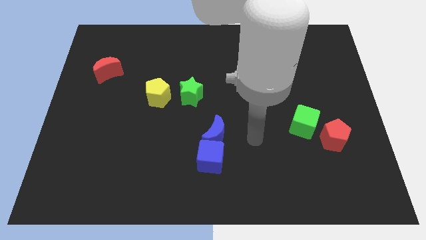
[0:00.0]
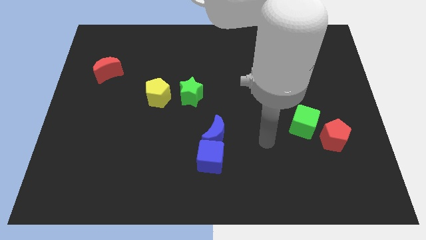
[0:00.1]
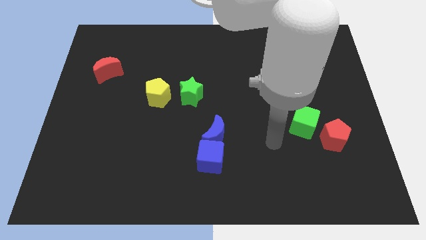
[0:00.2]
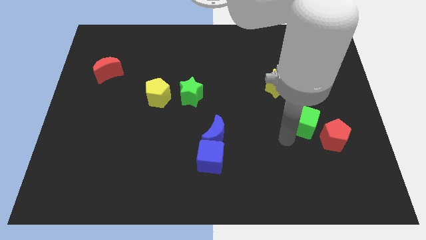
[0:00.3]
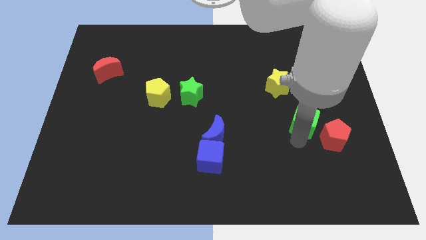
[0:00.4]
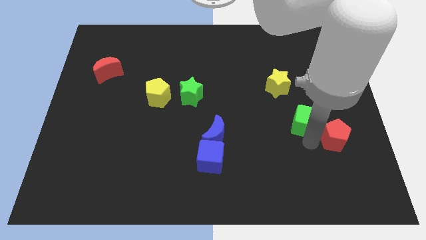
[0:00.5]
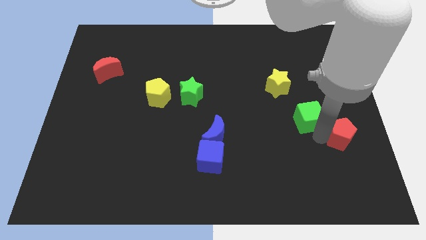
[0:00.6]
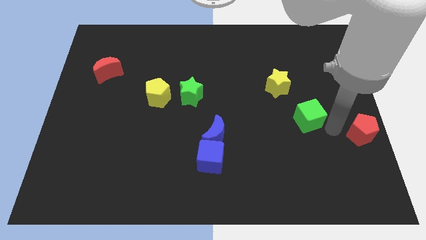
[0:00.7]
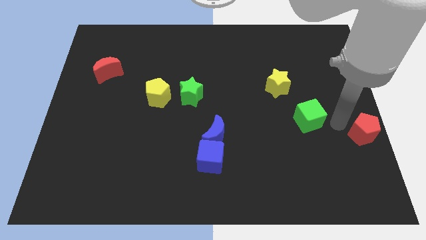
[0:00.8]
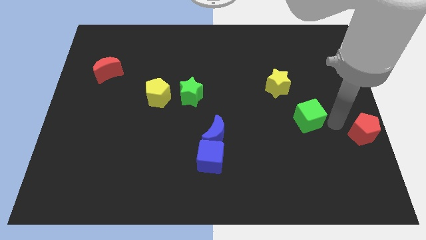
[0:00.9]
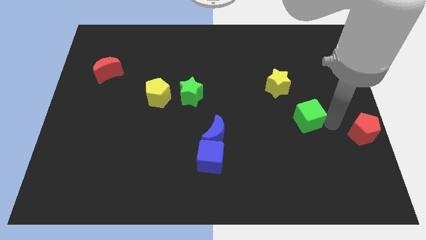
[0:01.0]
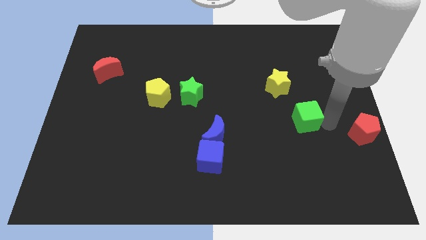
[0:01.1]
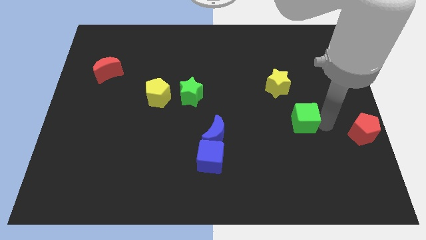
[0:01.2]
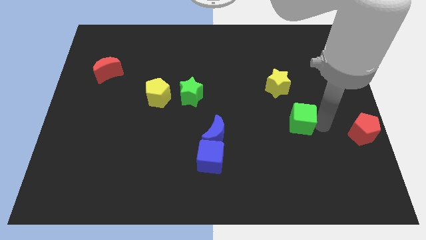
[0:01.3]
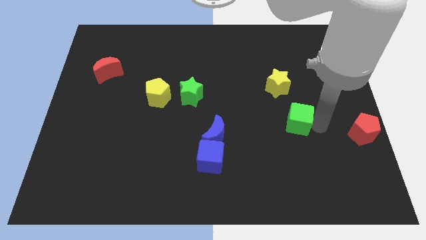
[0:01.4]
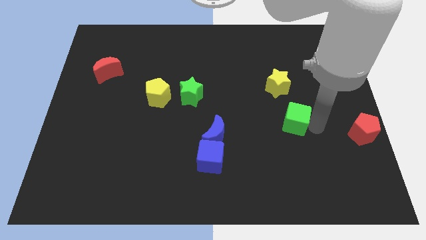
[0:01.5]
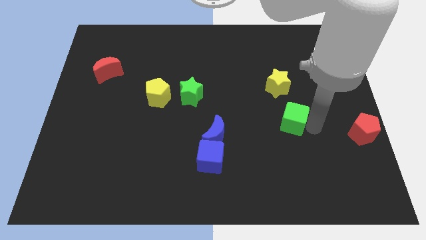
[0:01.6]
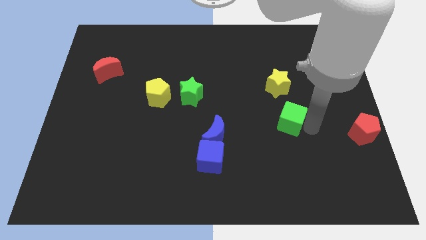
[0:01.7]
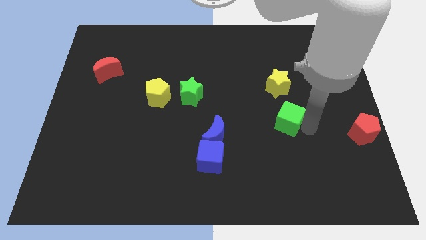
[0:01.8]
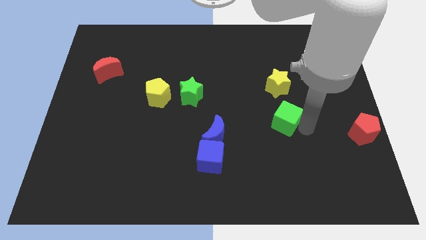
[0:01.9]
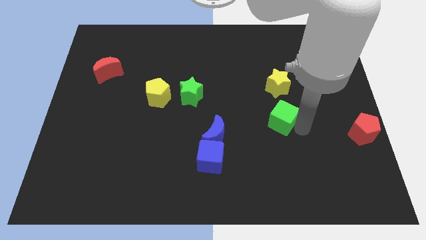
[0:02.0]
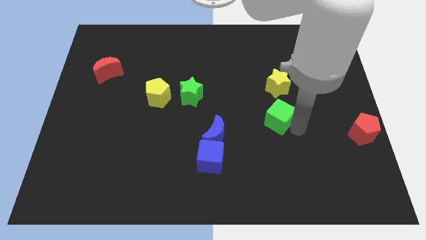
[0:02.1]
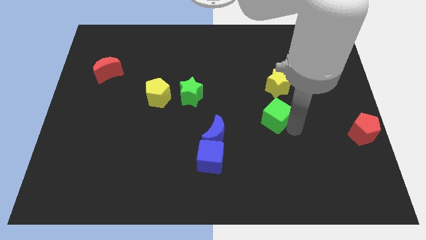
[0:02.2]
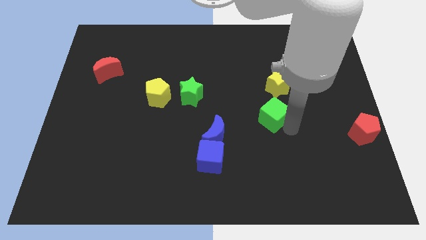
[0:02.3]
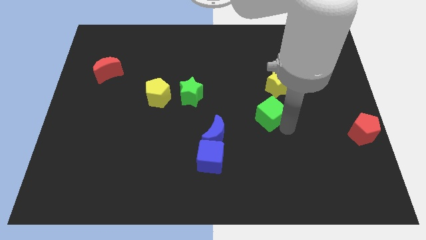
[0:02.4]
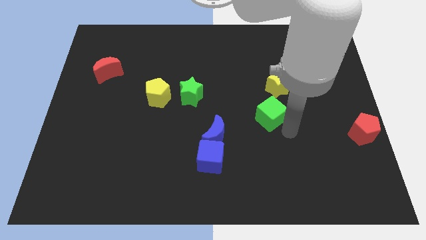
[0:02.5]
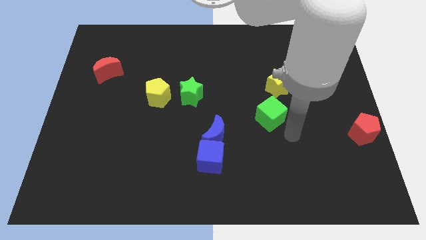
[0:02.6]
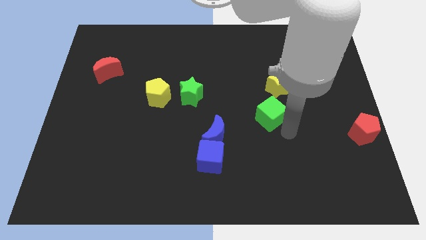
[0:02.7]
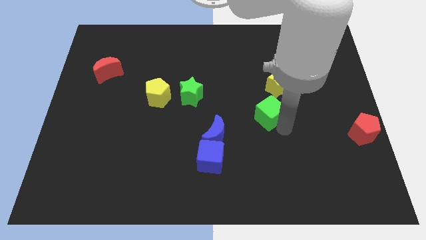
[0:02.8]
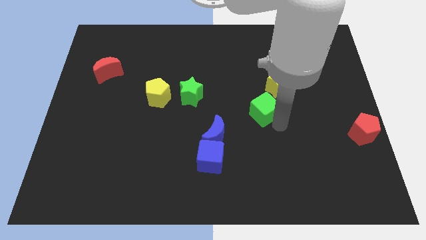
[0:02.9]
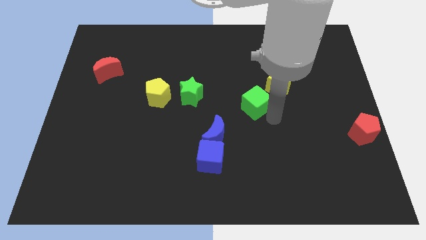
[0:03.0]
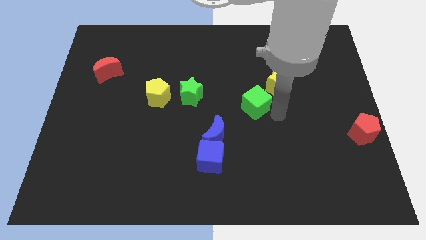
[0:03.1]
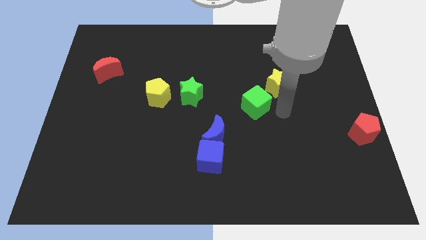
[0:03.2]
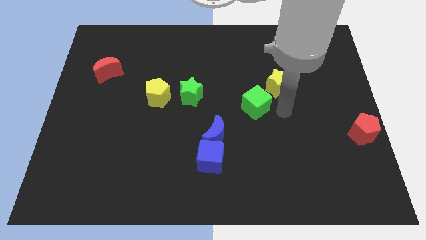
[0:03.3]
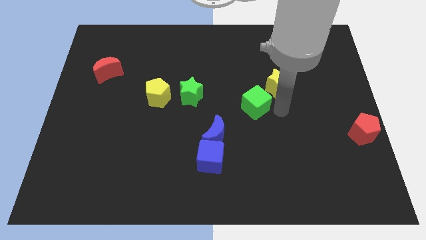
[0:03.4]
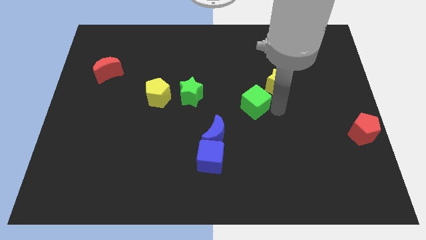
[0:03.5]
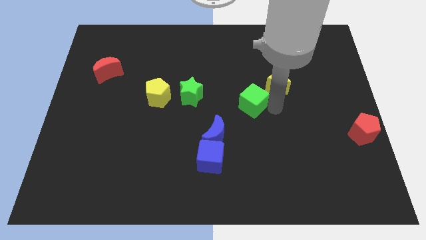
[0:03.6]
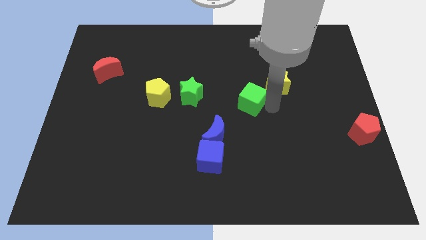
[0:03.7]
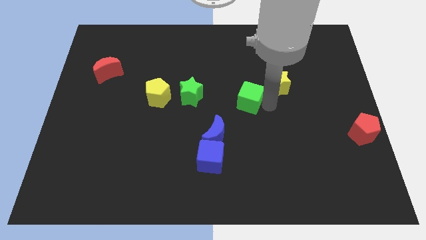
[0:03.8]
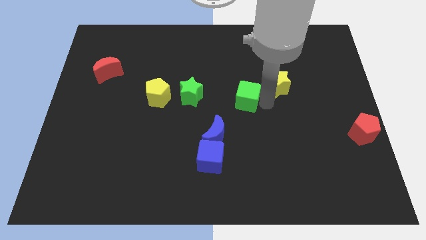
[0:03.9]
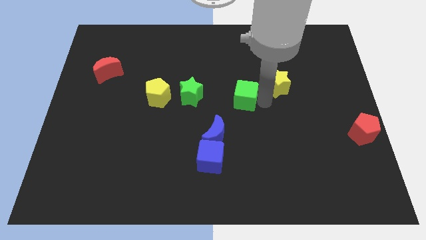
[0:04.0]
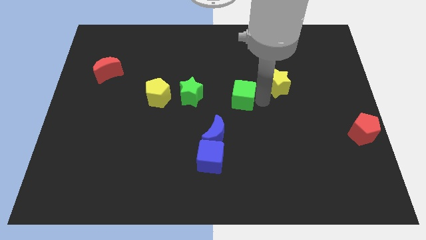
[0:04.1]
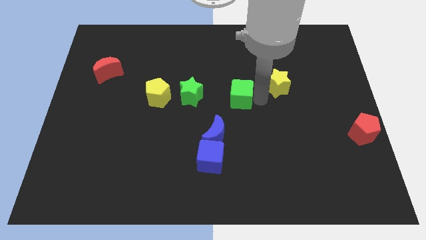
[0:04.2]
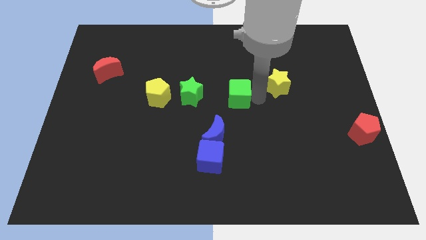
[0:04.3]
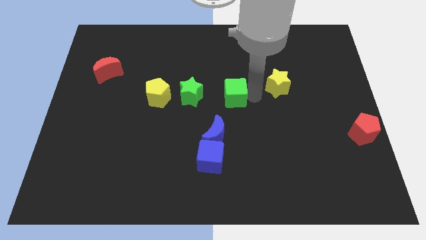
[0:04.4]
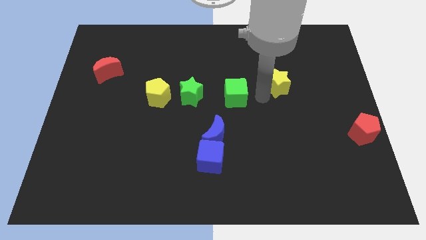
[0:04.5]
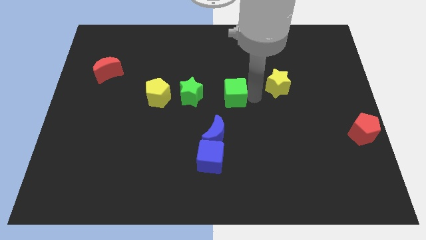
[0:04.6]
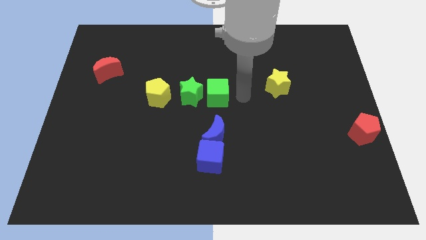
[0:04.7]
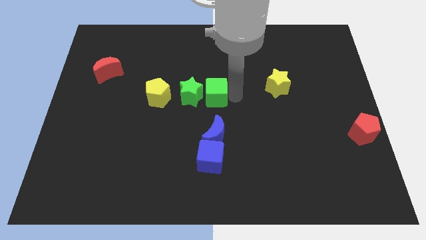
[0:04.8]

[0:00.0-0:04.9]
move the green cube to the green star

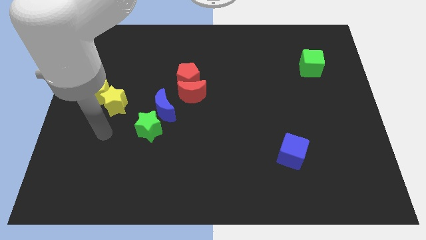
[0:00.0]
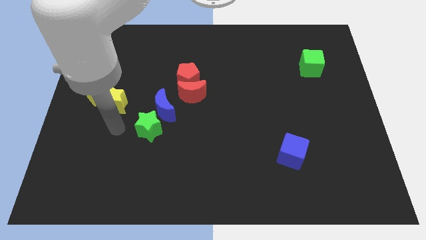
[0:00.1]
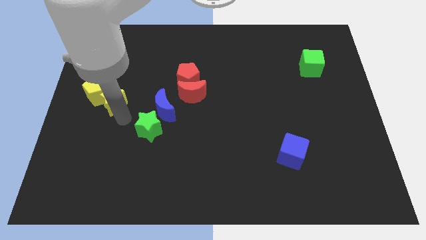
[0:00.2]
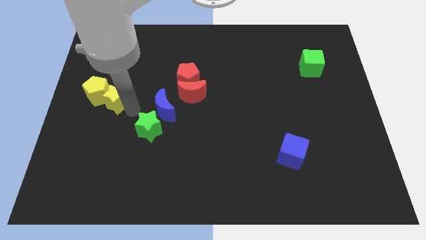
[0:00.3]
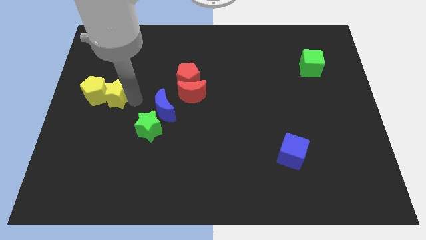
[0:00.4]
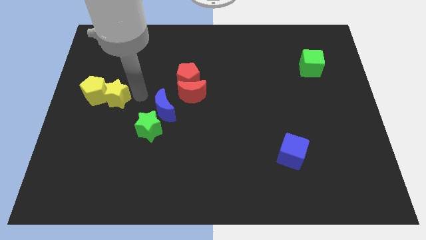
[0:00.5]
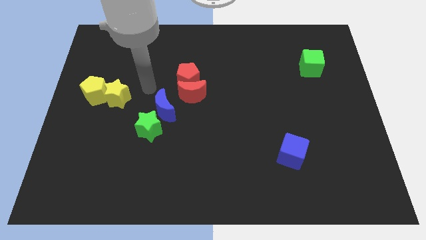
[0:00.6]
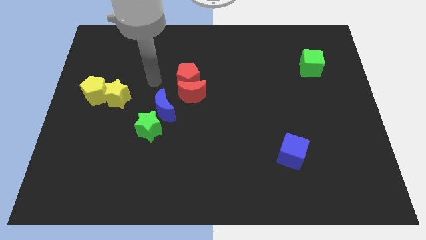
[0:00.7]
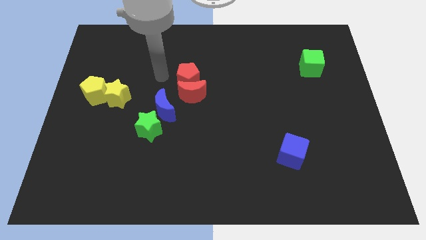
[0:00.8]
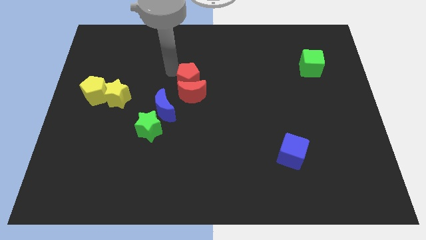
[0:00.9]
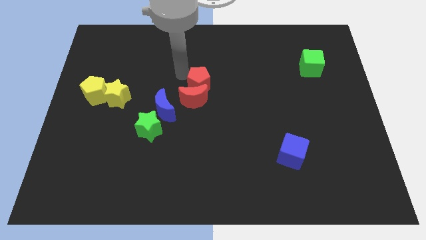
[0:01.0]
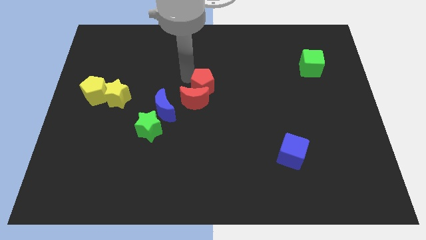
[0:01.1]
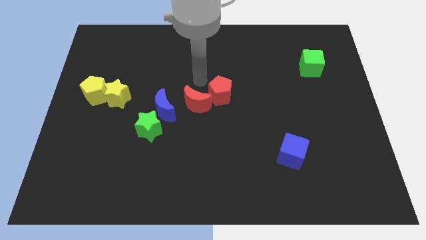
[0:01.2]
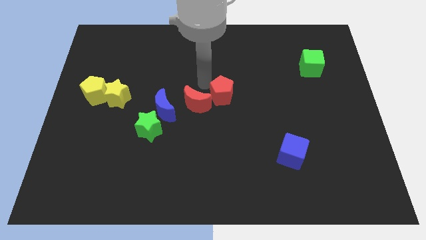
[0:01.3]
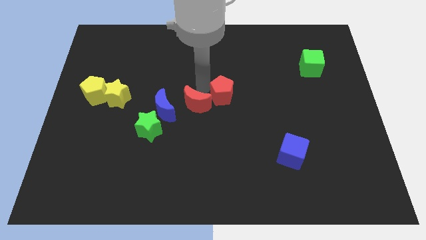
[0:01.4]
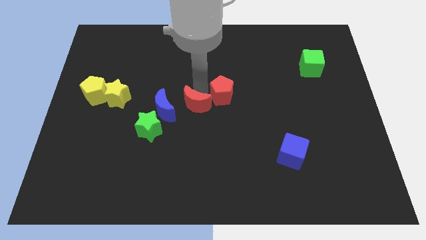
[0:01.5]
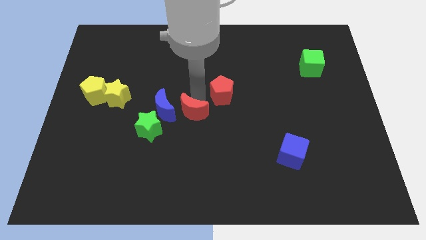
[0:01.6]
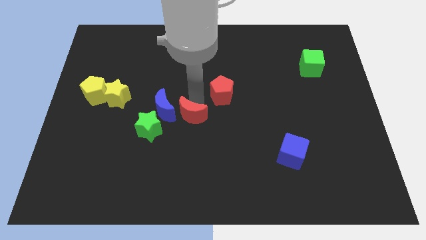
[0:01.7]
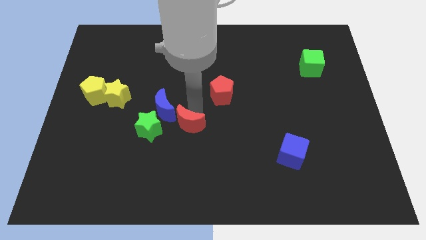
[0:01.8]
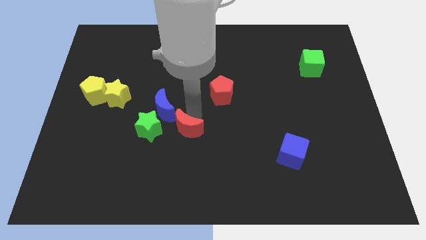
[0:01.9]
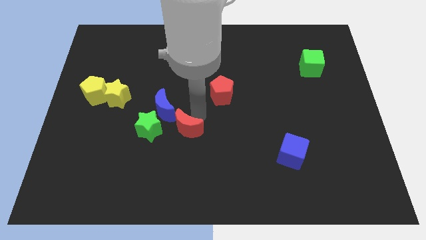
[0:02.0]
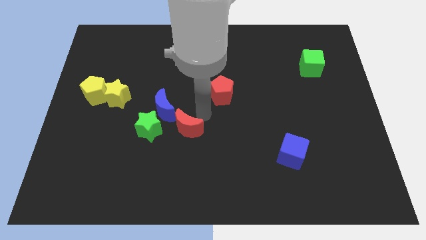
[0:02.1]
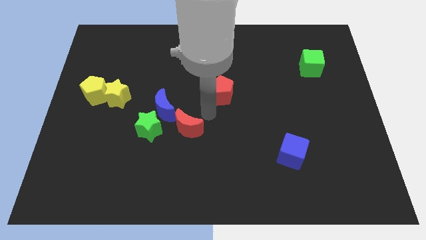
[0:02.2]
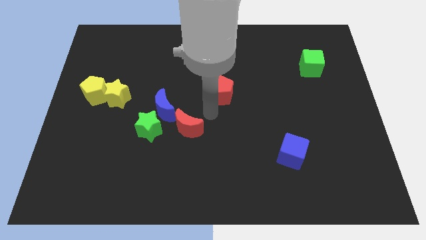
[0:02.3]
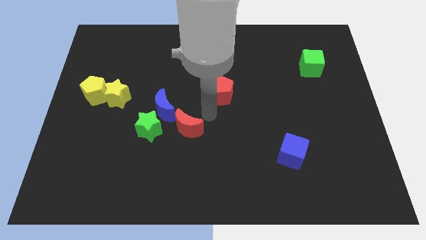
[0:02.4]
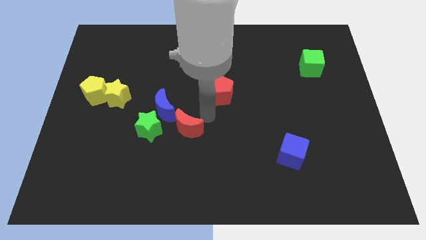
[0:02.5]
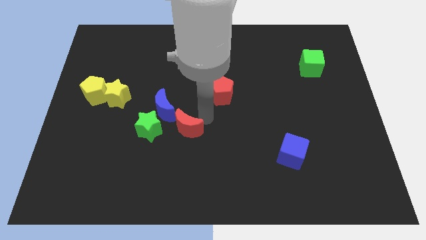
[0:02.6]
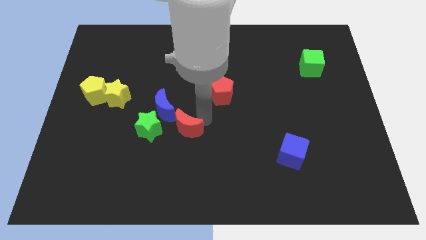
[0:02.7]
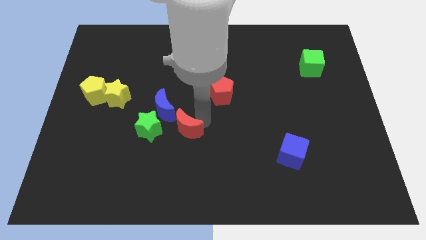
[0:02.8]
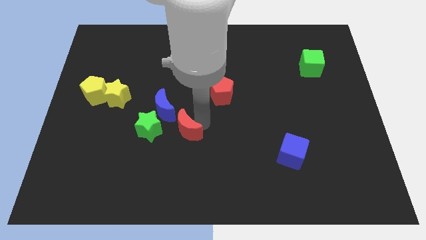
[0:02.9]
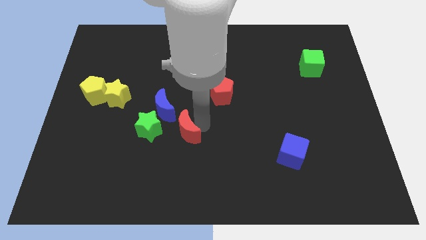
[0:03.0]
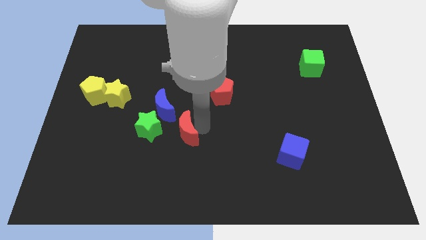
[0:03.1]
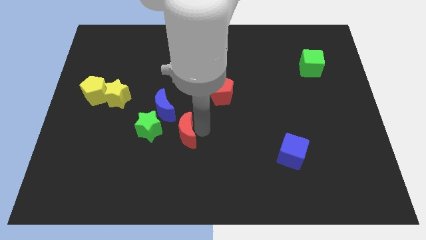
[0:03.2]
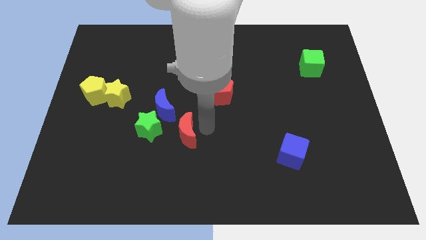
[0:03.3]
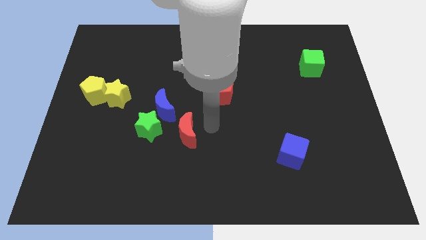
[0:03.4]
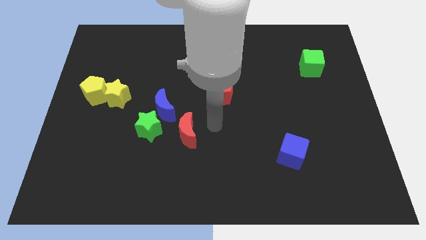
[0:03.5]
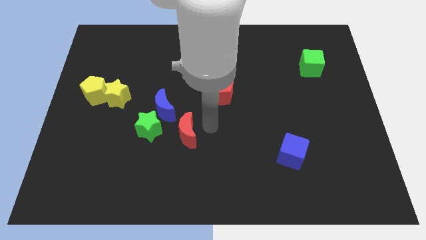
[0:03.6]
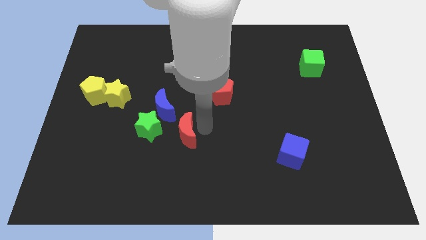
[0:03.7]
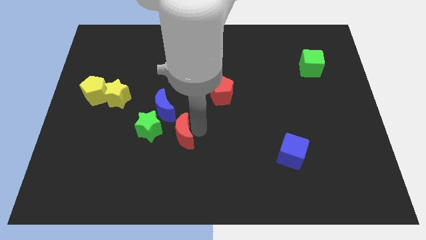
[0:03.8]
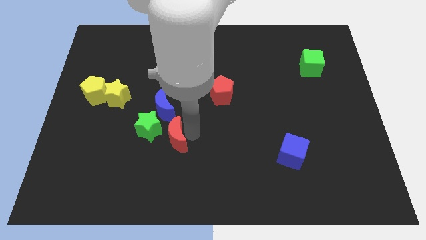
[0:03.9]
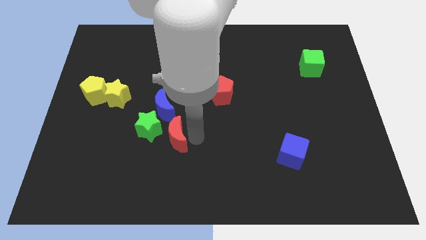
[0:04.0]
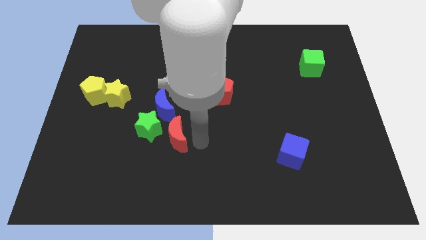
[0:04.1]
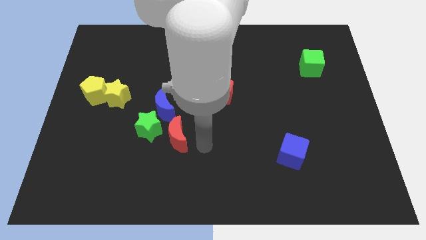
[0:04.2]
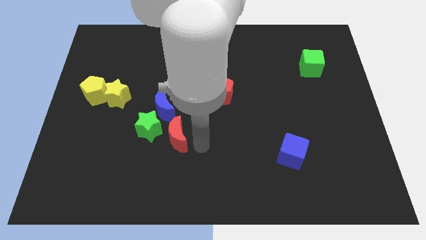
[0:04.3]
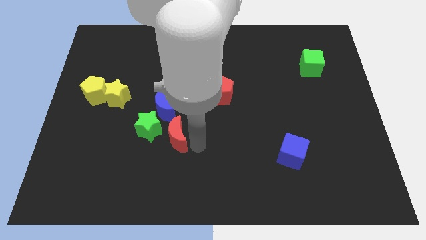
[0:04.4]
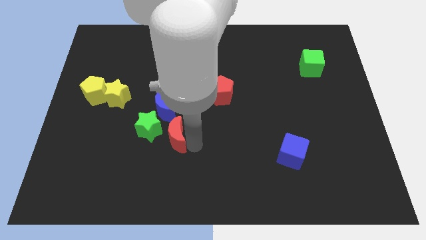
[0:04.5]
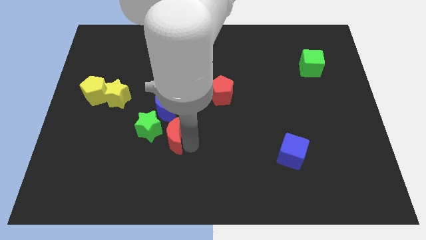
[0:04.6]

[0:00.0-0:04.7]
push the red moon close to the green star
